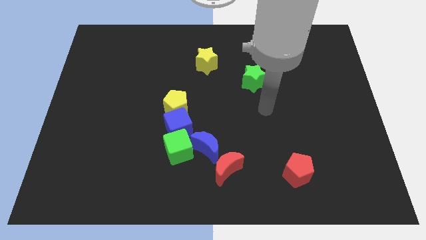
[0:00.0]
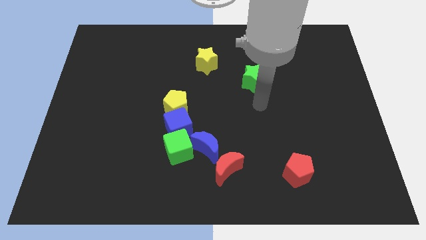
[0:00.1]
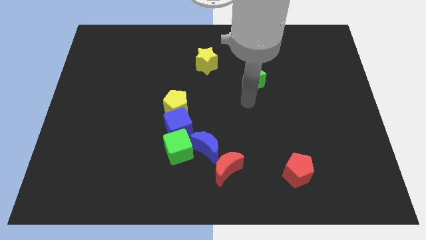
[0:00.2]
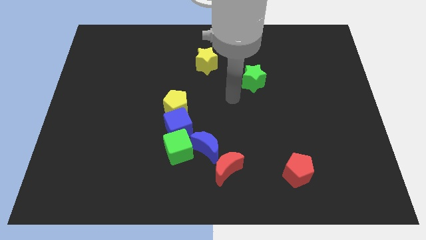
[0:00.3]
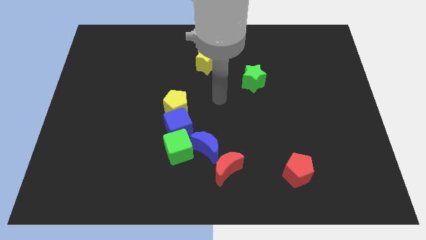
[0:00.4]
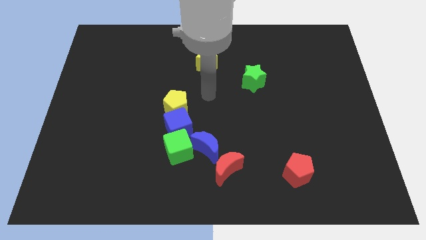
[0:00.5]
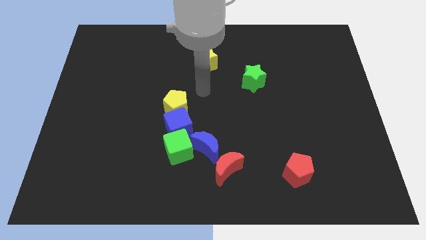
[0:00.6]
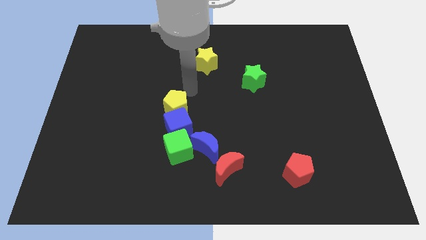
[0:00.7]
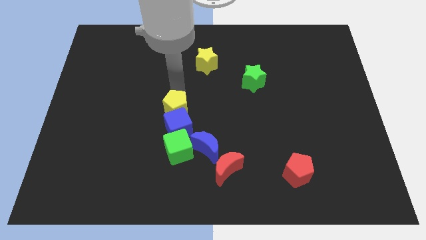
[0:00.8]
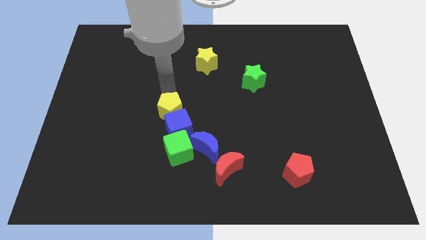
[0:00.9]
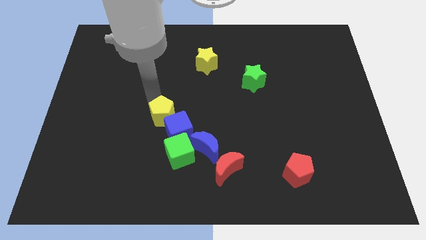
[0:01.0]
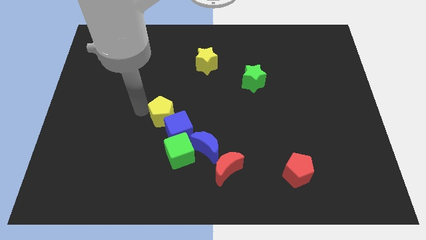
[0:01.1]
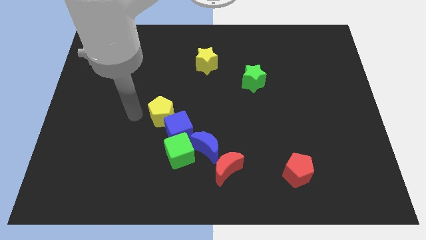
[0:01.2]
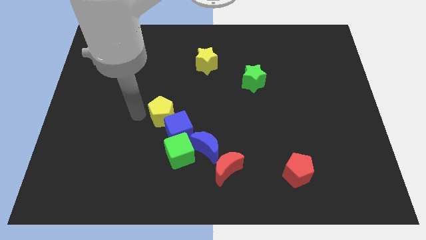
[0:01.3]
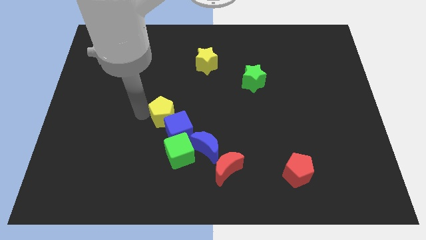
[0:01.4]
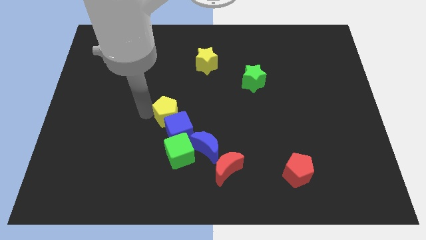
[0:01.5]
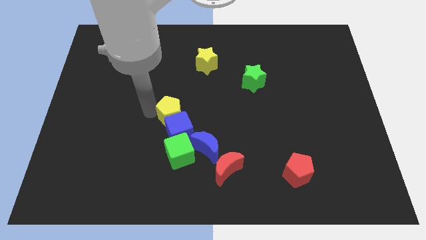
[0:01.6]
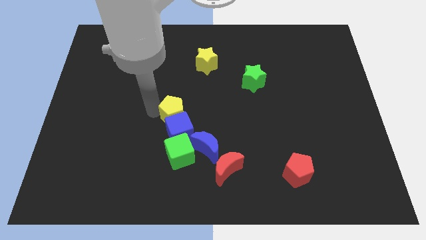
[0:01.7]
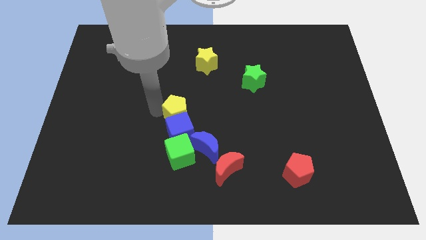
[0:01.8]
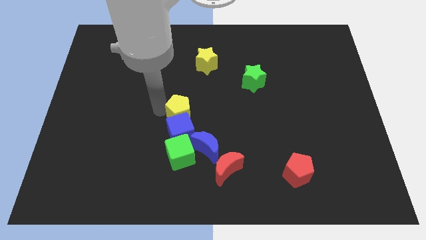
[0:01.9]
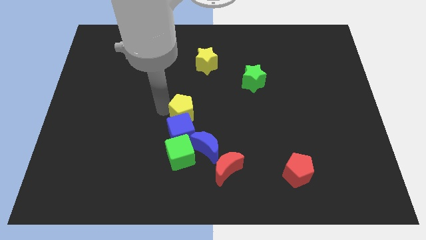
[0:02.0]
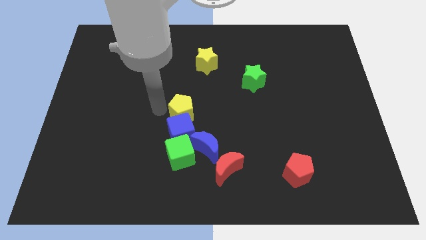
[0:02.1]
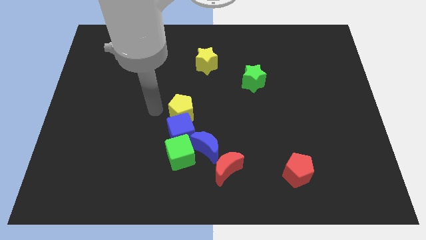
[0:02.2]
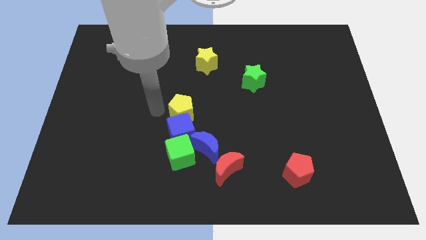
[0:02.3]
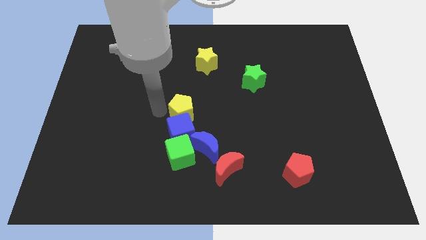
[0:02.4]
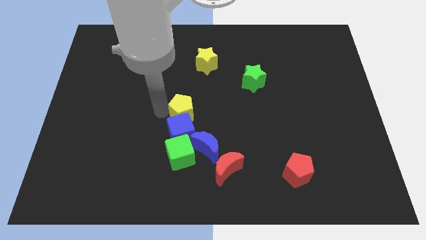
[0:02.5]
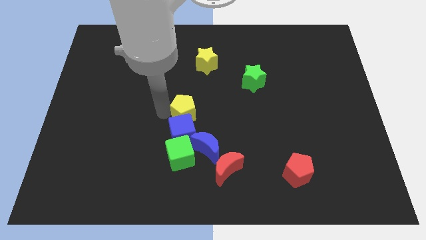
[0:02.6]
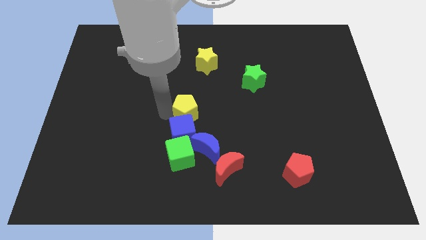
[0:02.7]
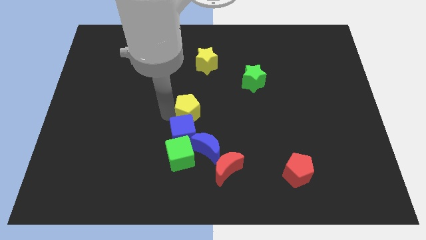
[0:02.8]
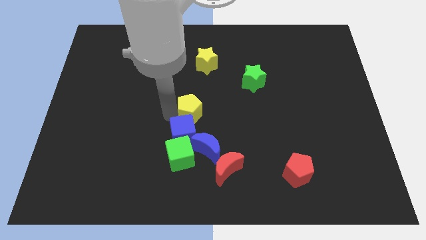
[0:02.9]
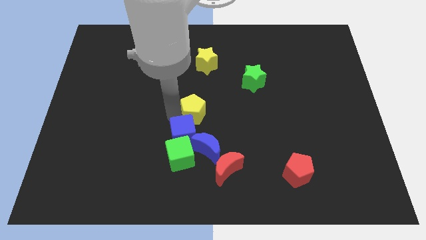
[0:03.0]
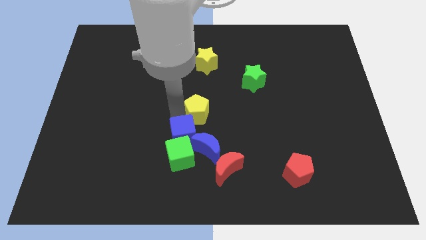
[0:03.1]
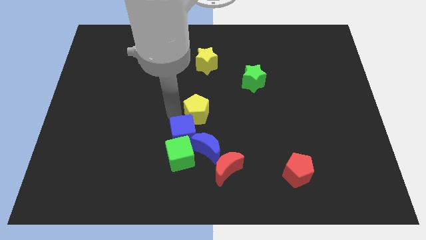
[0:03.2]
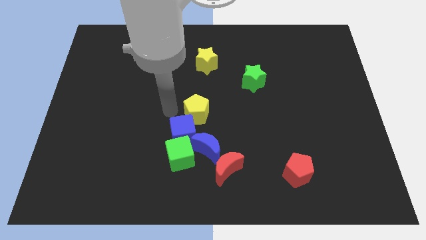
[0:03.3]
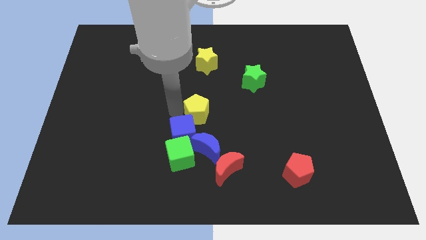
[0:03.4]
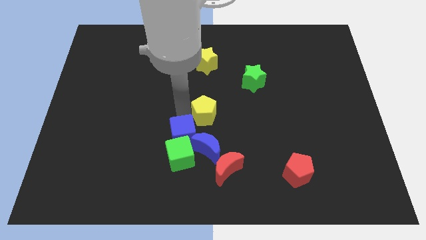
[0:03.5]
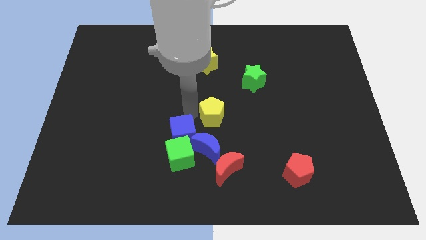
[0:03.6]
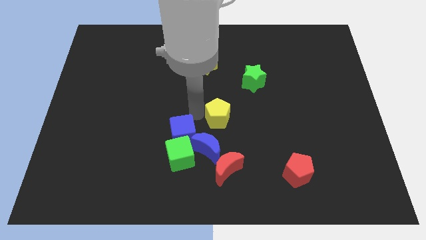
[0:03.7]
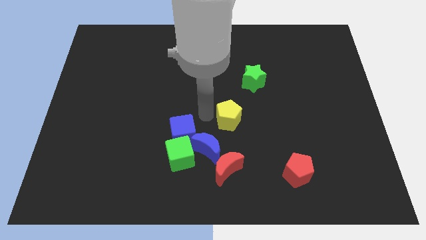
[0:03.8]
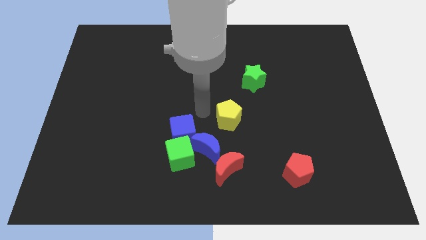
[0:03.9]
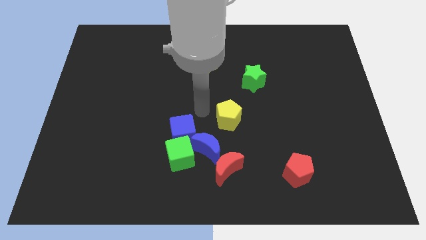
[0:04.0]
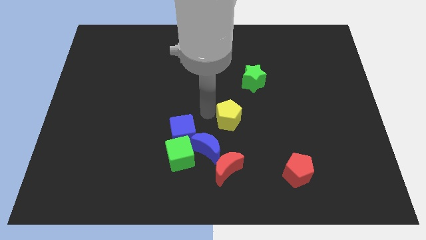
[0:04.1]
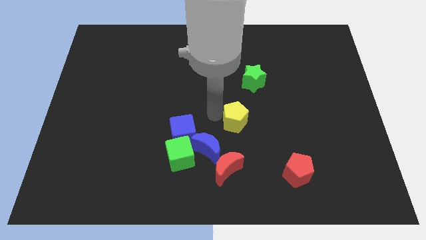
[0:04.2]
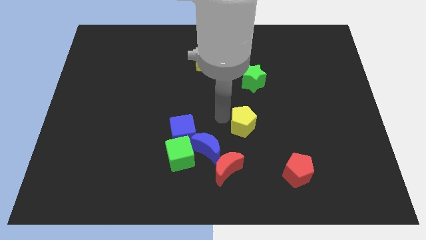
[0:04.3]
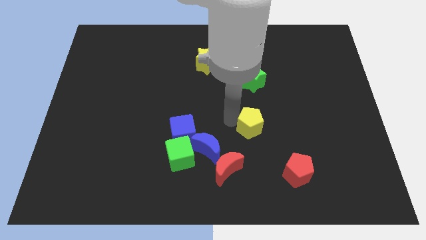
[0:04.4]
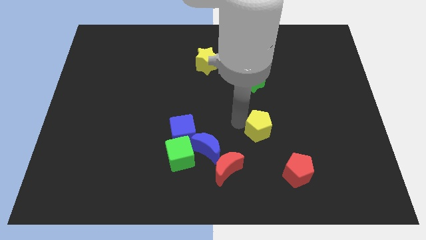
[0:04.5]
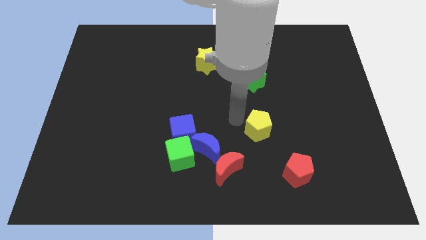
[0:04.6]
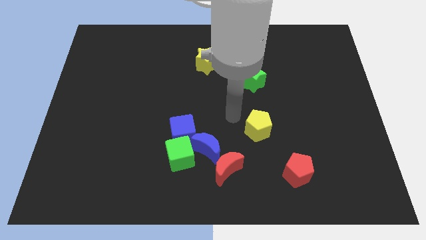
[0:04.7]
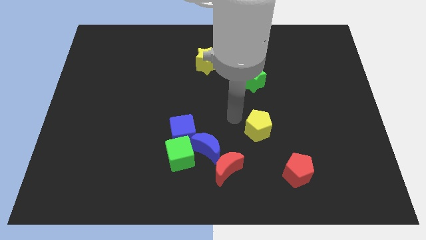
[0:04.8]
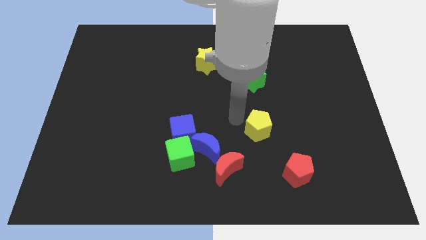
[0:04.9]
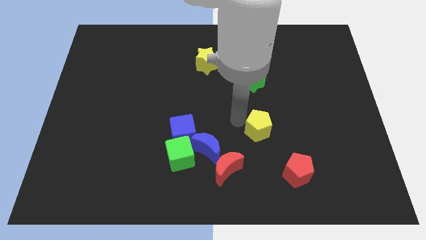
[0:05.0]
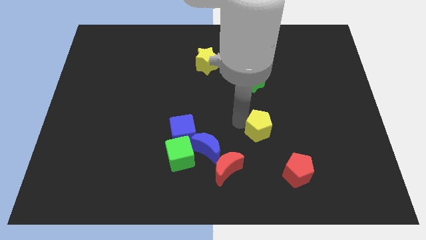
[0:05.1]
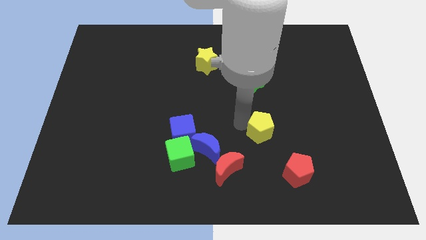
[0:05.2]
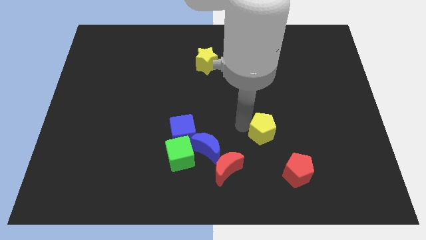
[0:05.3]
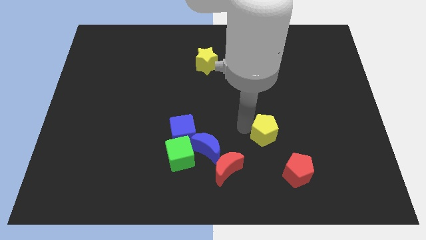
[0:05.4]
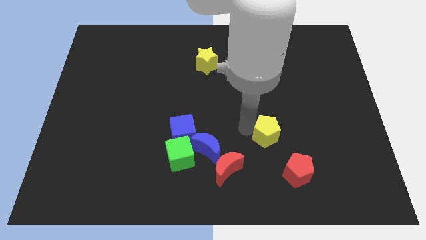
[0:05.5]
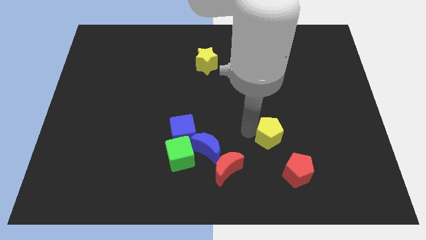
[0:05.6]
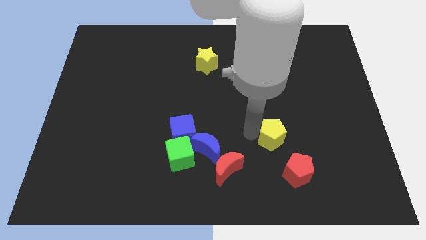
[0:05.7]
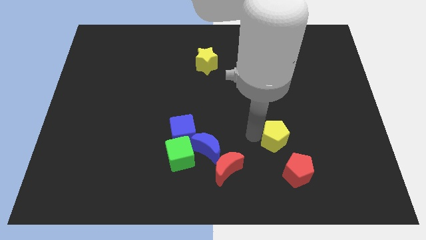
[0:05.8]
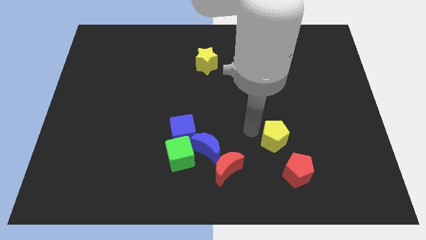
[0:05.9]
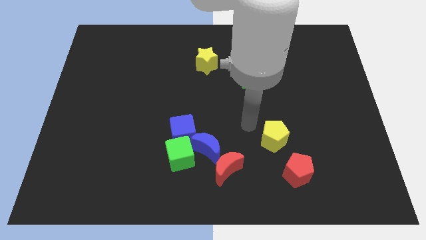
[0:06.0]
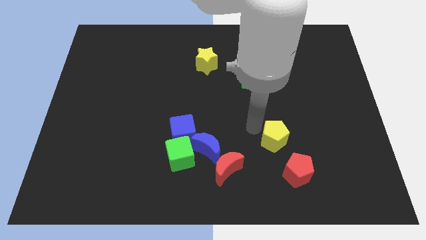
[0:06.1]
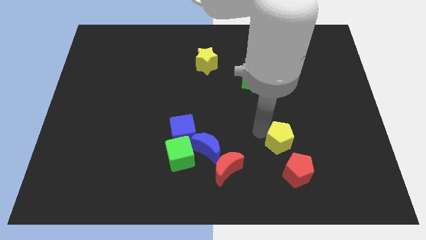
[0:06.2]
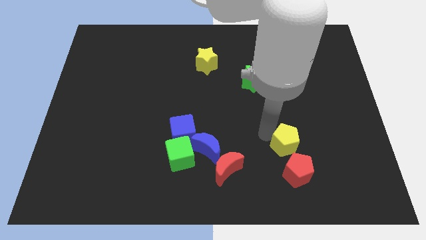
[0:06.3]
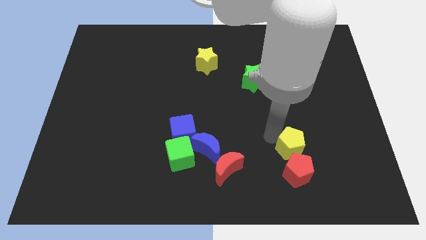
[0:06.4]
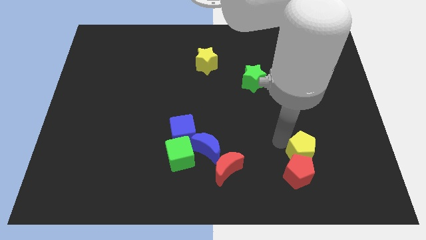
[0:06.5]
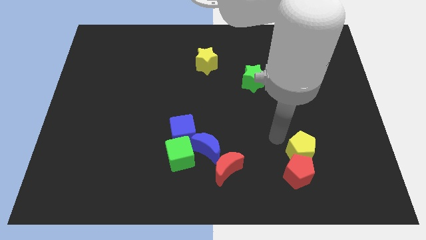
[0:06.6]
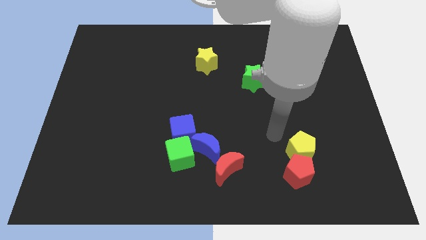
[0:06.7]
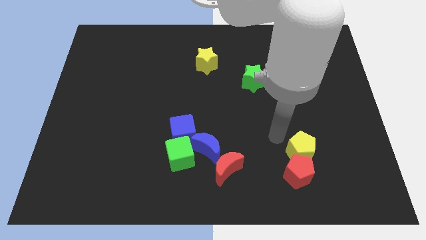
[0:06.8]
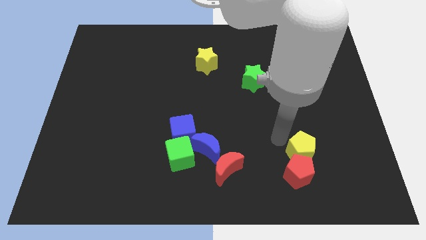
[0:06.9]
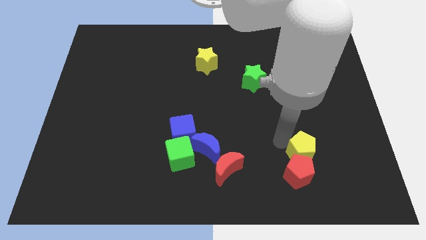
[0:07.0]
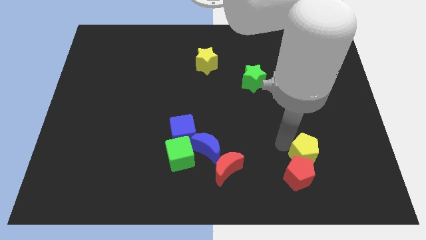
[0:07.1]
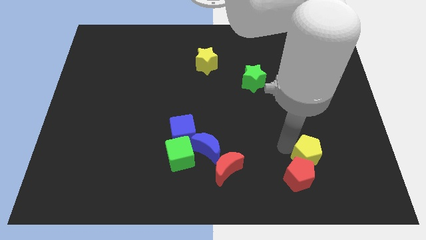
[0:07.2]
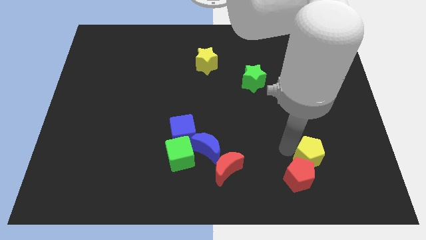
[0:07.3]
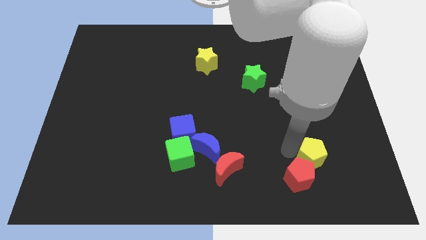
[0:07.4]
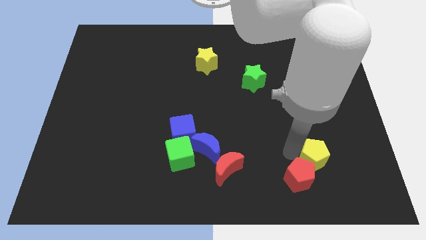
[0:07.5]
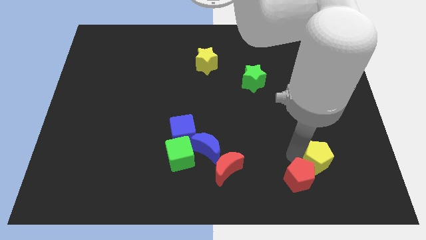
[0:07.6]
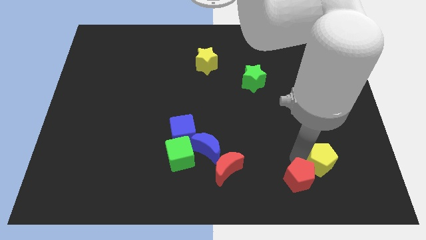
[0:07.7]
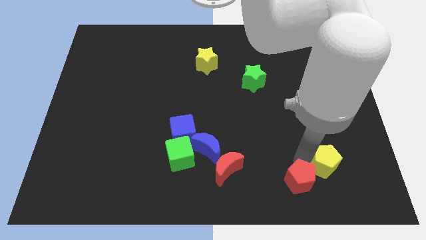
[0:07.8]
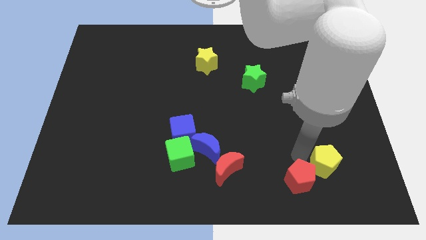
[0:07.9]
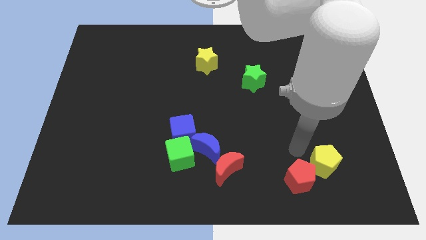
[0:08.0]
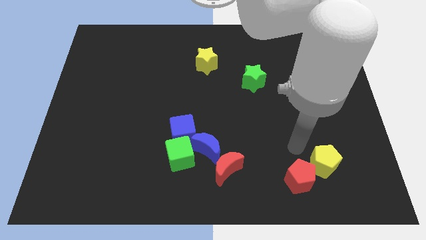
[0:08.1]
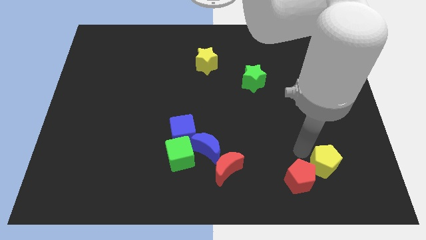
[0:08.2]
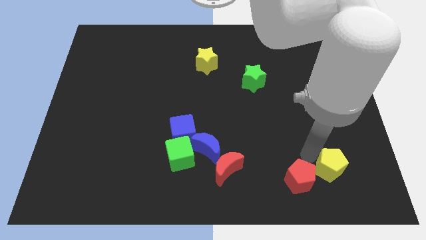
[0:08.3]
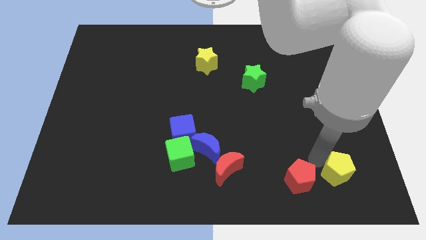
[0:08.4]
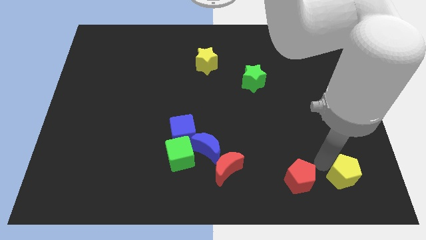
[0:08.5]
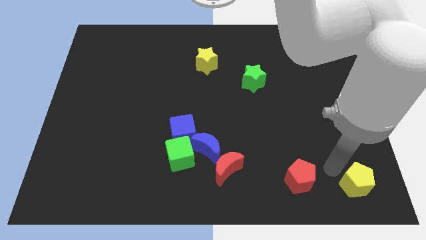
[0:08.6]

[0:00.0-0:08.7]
move the yellow pentagon to the bottom right of the board
